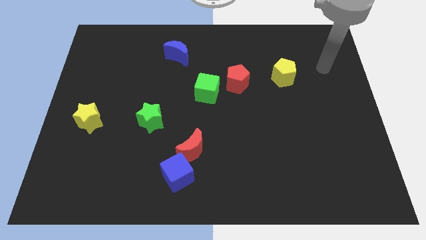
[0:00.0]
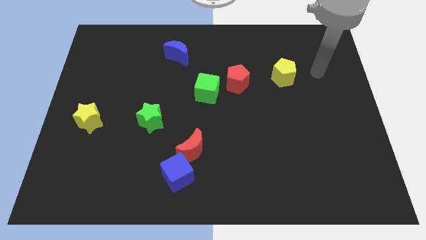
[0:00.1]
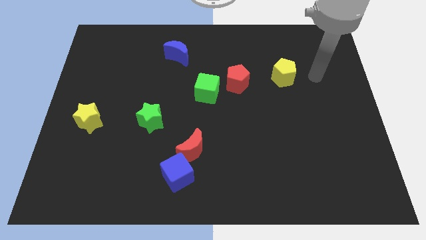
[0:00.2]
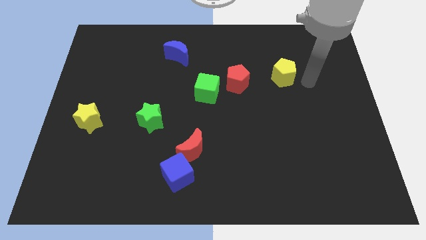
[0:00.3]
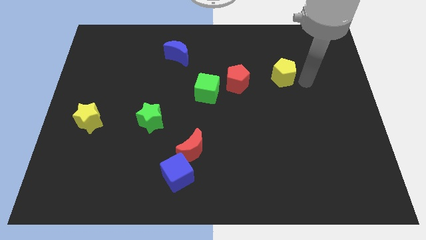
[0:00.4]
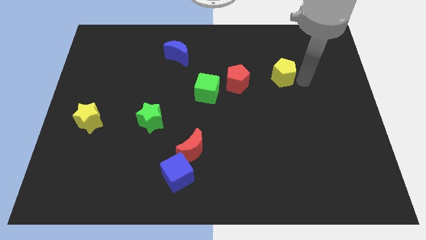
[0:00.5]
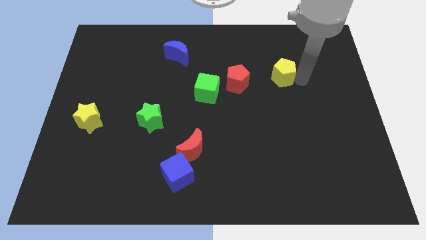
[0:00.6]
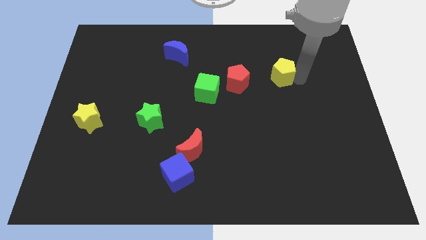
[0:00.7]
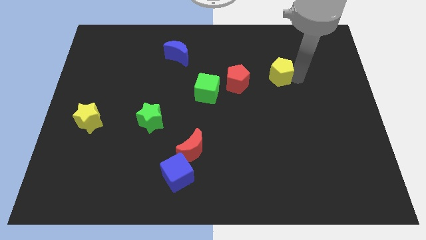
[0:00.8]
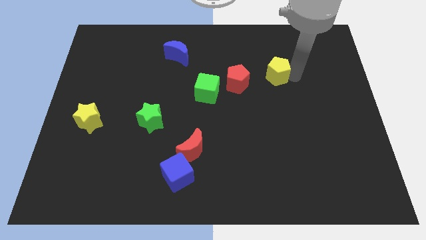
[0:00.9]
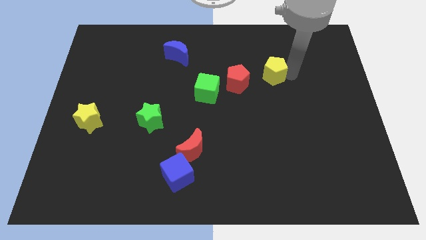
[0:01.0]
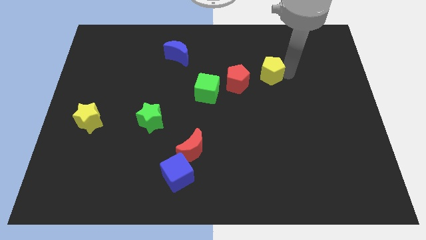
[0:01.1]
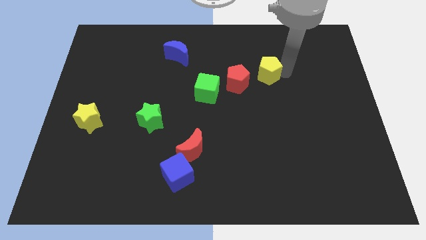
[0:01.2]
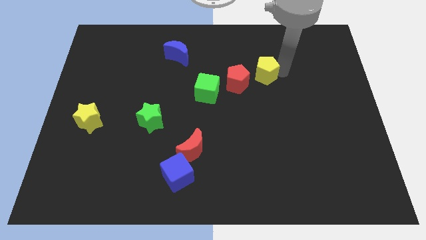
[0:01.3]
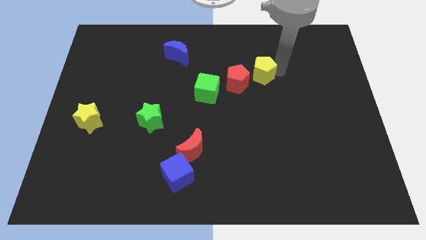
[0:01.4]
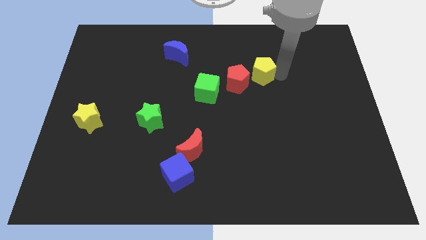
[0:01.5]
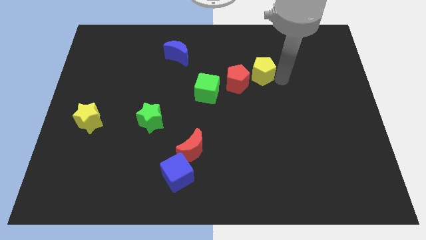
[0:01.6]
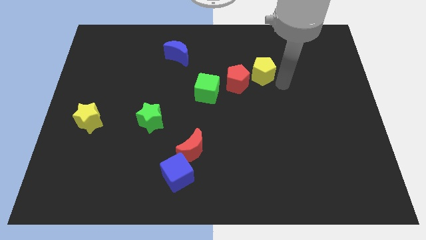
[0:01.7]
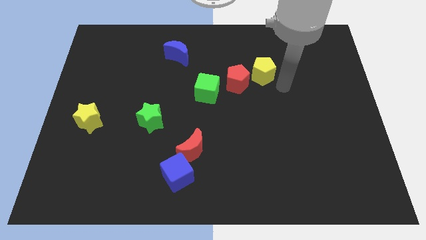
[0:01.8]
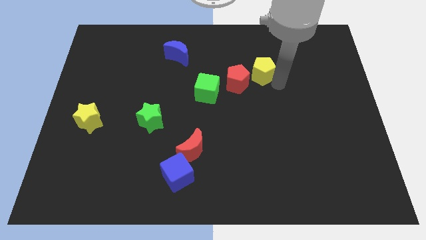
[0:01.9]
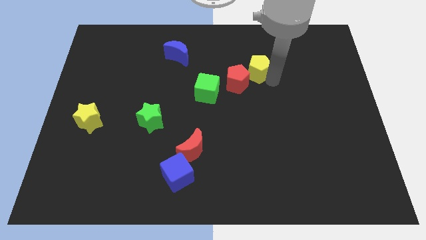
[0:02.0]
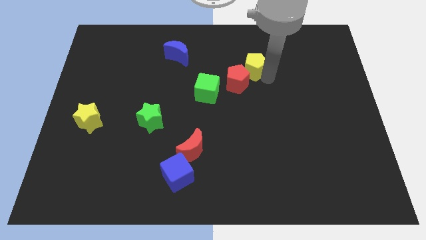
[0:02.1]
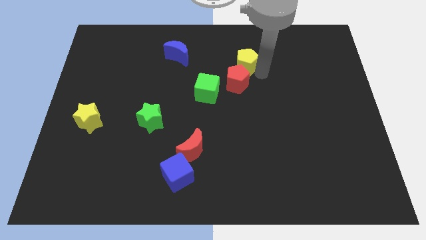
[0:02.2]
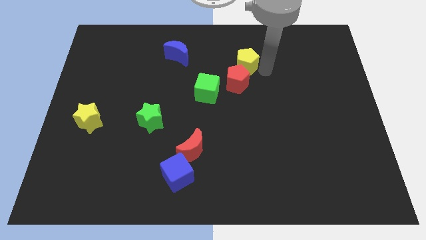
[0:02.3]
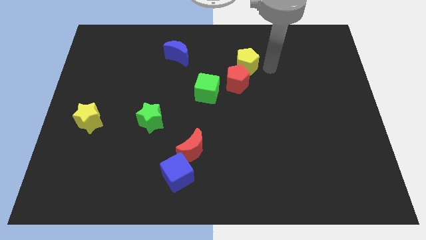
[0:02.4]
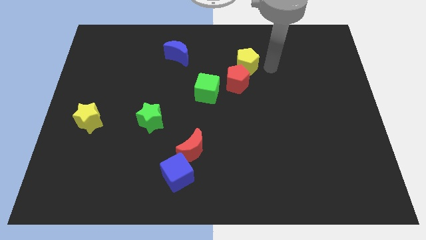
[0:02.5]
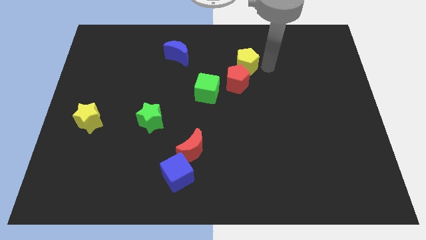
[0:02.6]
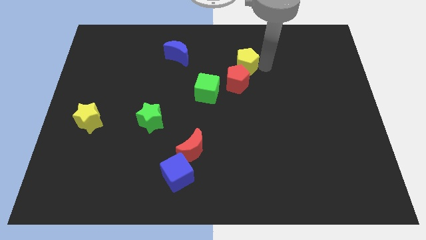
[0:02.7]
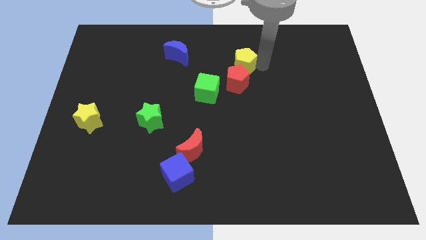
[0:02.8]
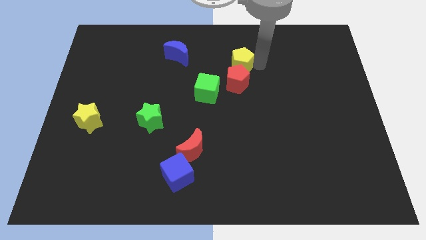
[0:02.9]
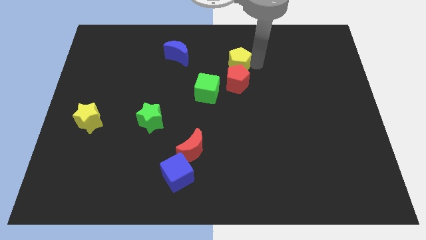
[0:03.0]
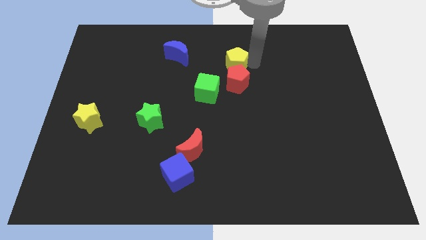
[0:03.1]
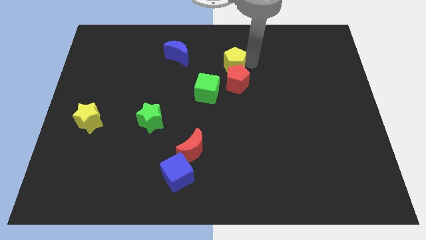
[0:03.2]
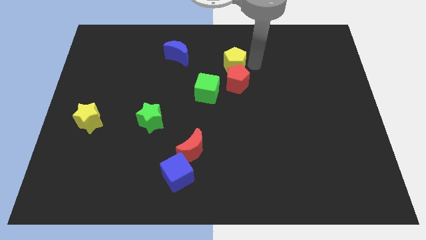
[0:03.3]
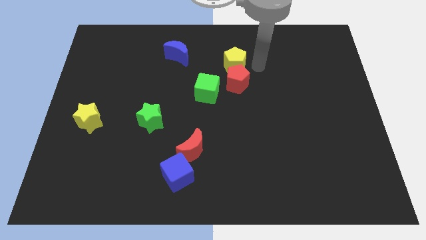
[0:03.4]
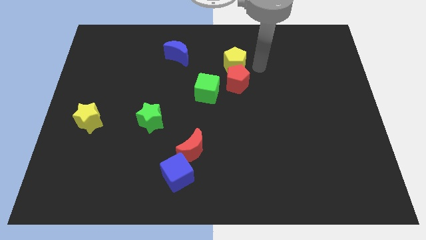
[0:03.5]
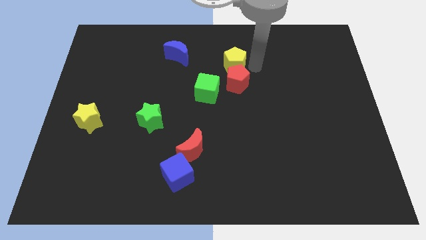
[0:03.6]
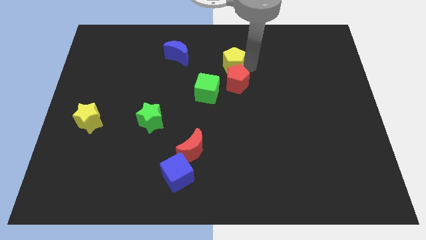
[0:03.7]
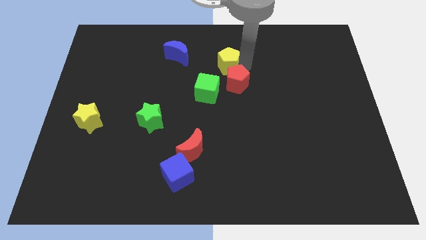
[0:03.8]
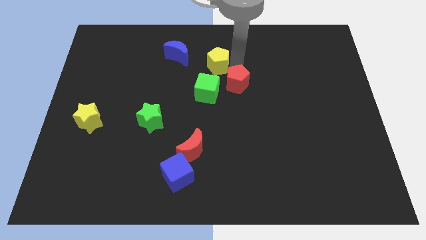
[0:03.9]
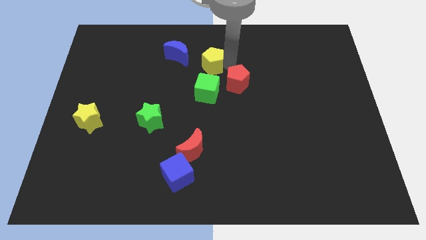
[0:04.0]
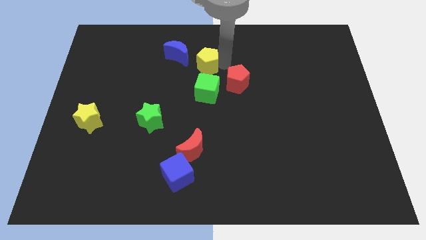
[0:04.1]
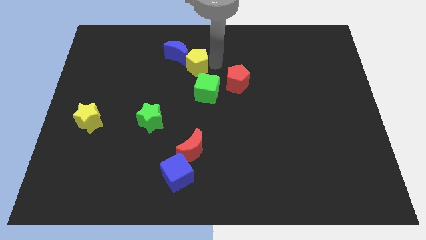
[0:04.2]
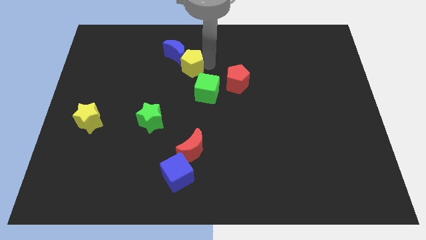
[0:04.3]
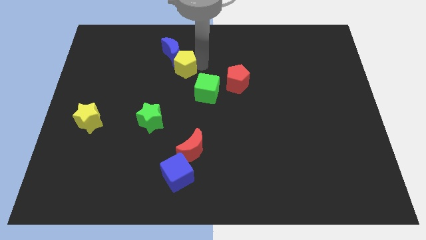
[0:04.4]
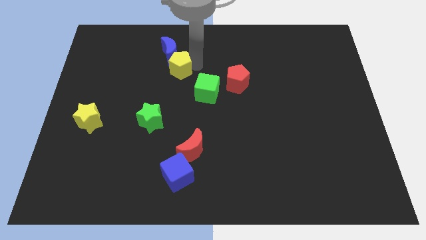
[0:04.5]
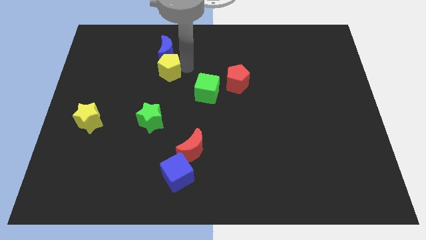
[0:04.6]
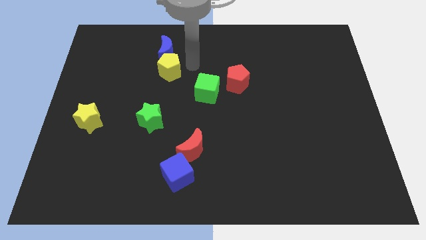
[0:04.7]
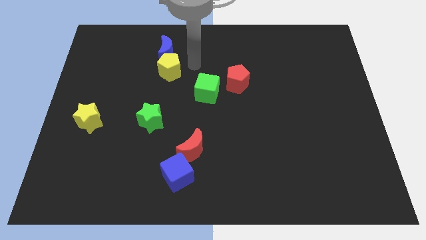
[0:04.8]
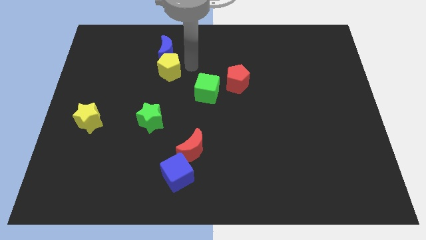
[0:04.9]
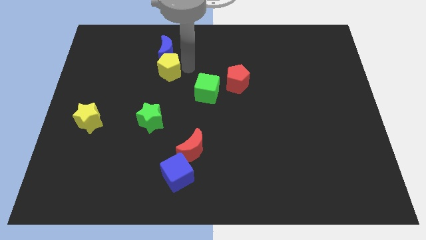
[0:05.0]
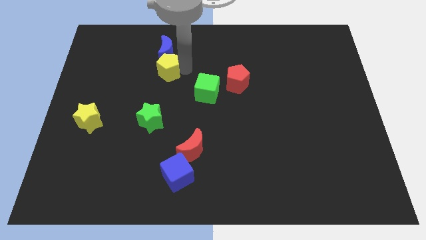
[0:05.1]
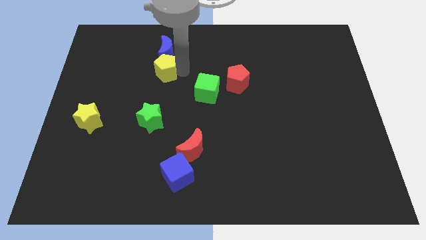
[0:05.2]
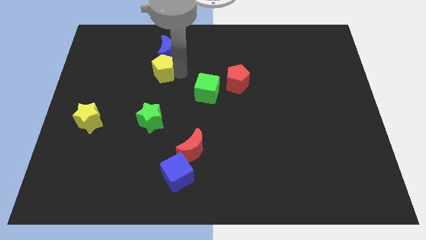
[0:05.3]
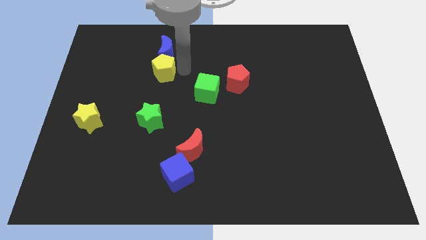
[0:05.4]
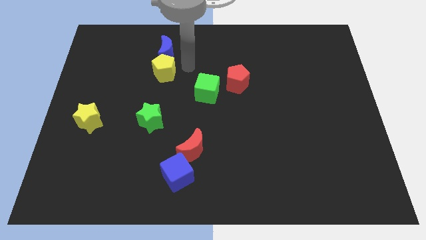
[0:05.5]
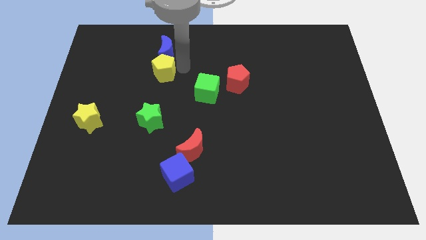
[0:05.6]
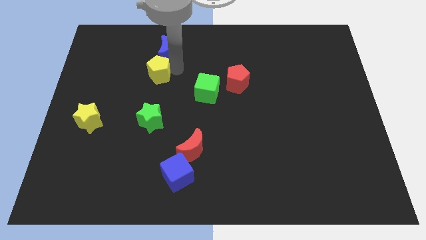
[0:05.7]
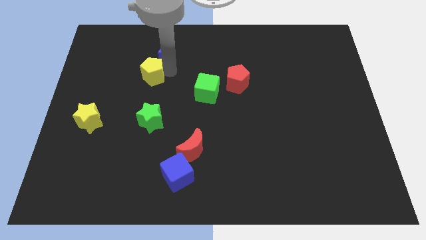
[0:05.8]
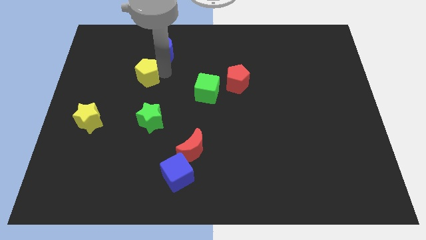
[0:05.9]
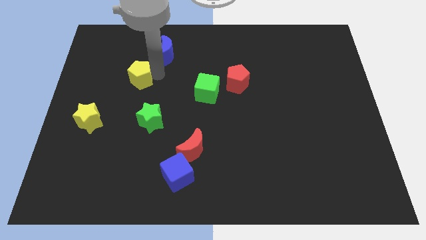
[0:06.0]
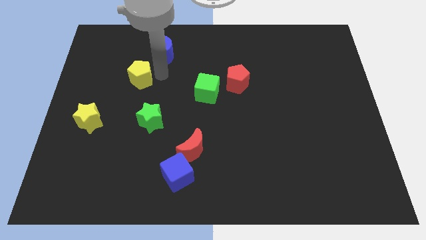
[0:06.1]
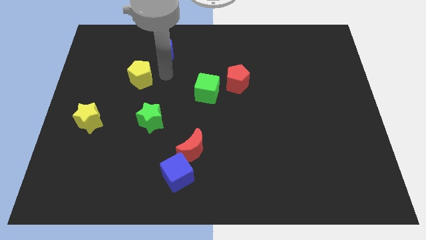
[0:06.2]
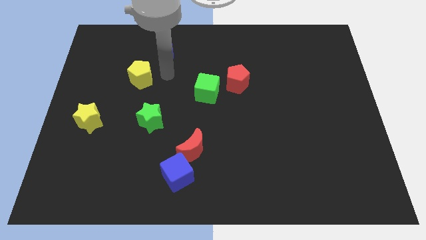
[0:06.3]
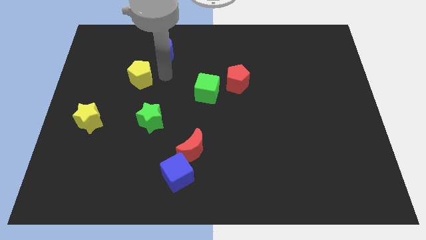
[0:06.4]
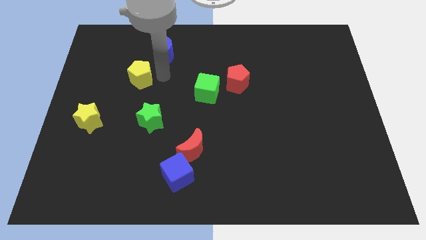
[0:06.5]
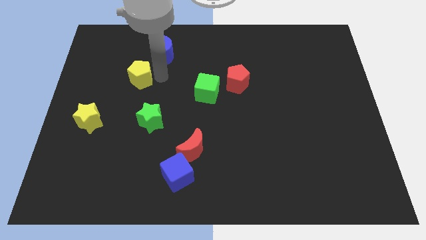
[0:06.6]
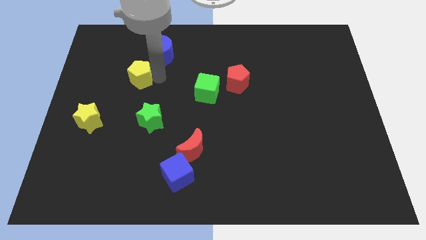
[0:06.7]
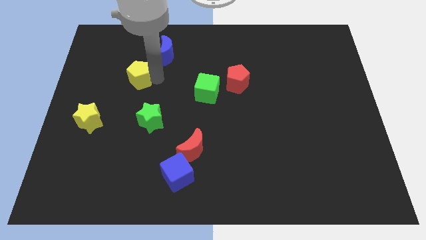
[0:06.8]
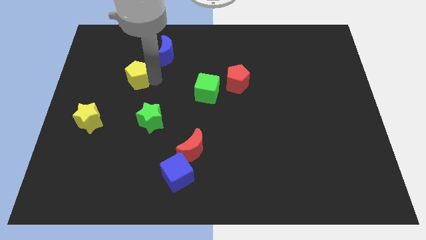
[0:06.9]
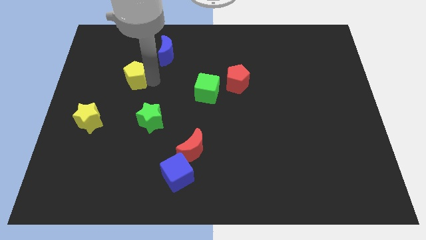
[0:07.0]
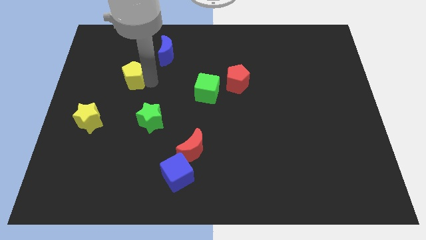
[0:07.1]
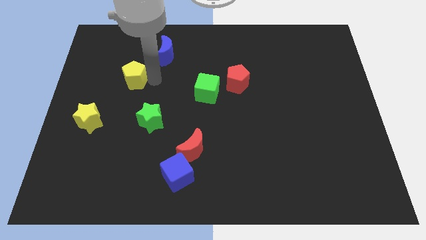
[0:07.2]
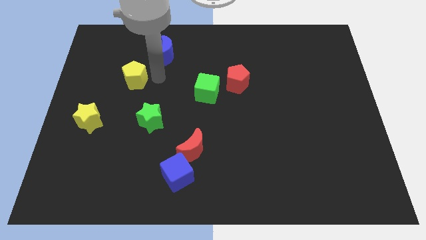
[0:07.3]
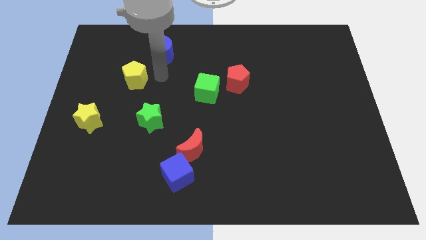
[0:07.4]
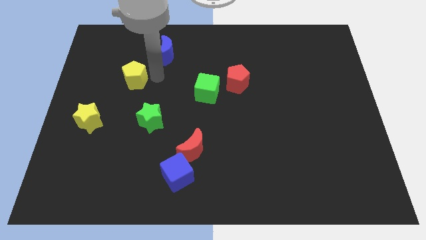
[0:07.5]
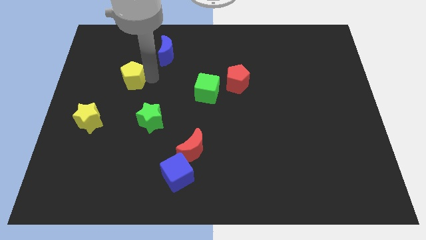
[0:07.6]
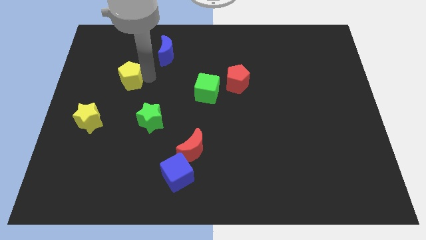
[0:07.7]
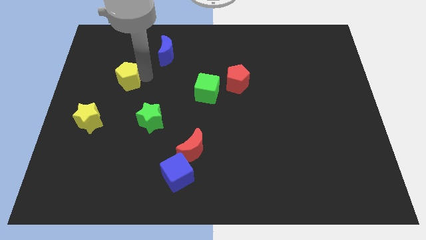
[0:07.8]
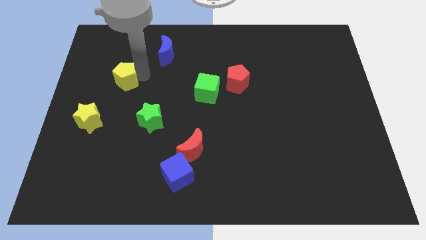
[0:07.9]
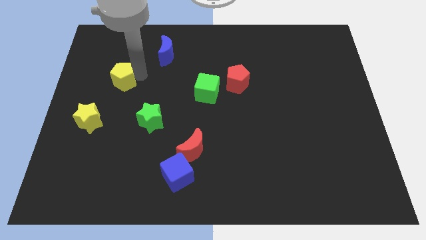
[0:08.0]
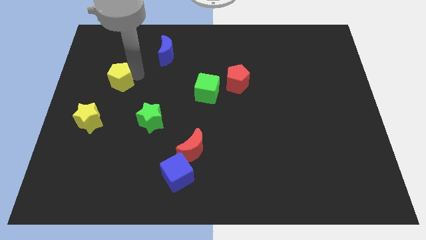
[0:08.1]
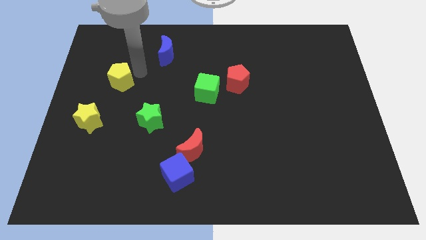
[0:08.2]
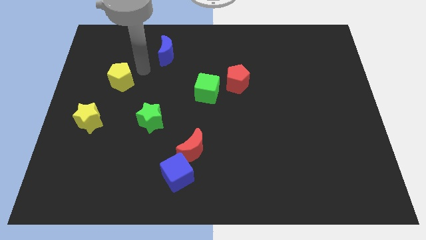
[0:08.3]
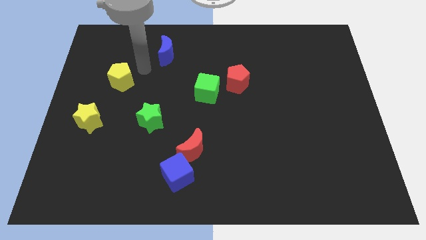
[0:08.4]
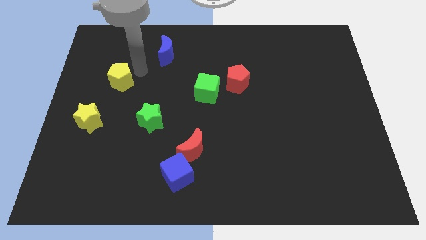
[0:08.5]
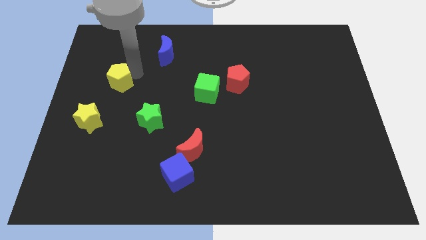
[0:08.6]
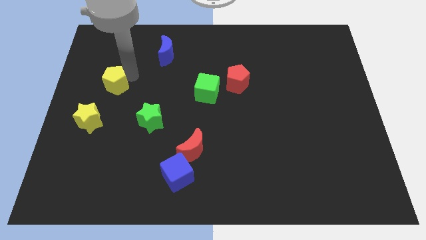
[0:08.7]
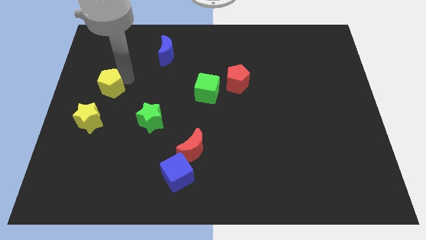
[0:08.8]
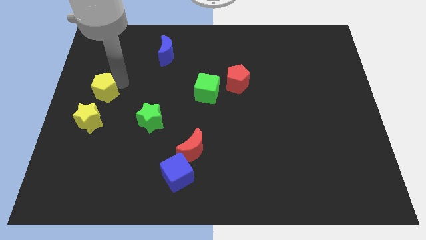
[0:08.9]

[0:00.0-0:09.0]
move the yellow pentagon to the center left
